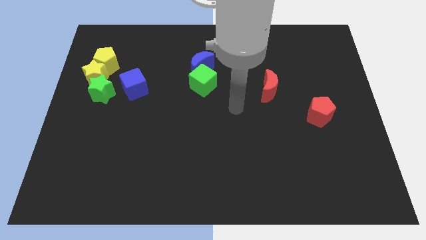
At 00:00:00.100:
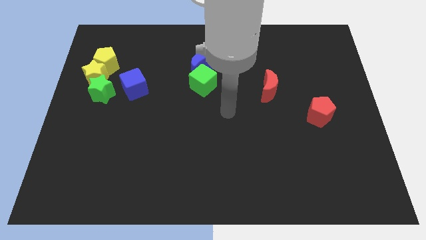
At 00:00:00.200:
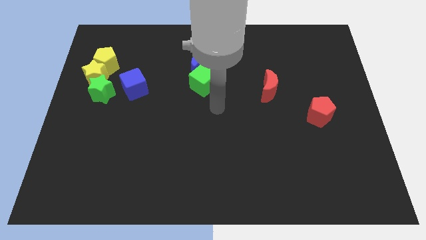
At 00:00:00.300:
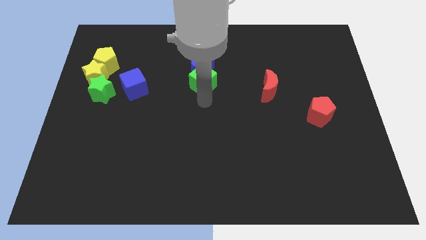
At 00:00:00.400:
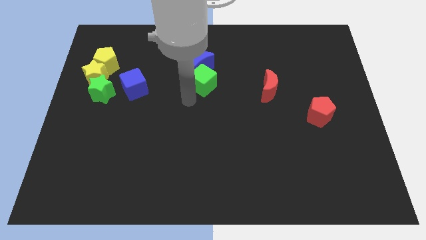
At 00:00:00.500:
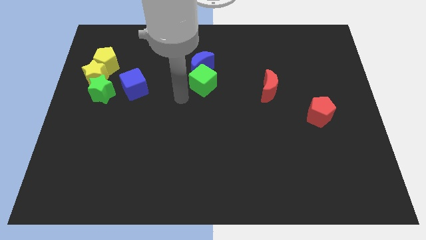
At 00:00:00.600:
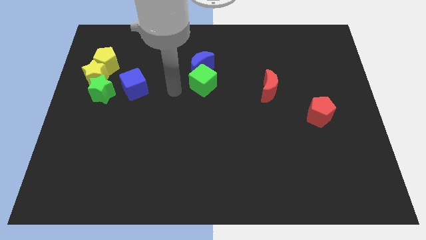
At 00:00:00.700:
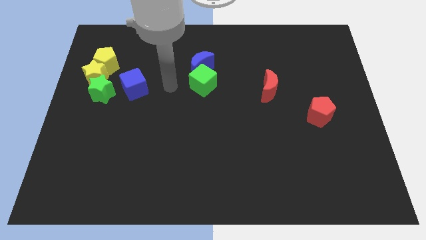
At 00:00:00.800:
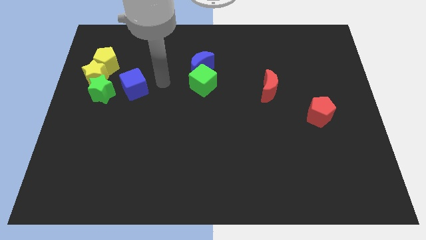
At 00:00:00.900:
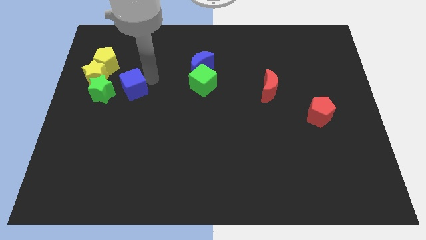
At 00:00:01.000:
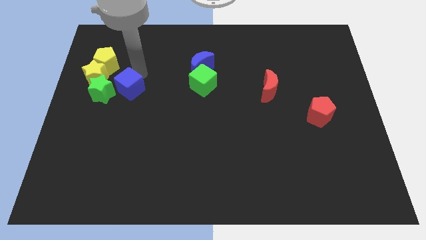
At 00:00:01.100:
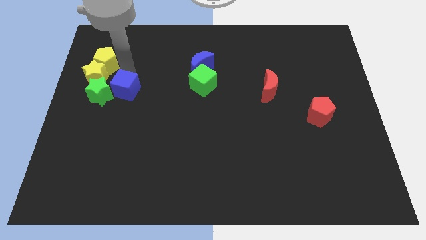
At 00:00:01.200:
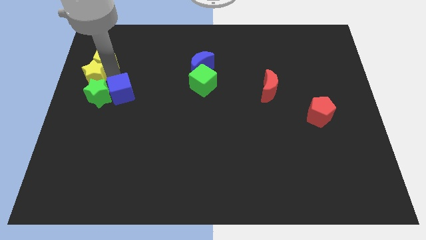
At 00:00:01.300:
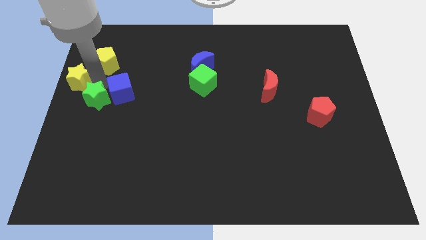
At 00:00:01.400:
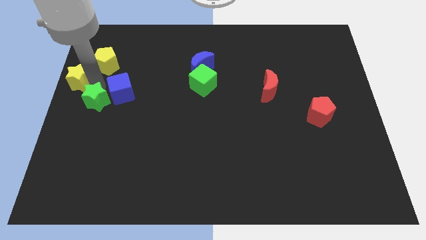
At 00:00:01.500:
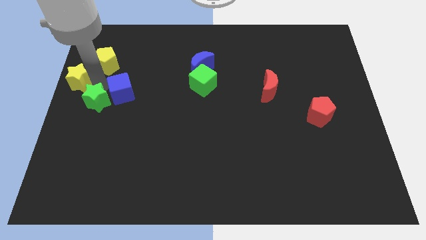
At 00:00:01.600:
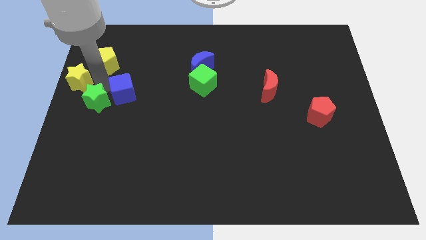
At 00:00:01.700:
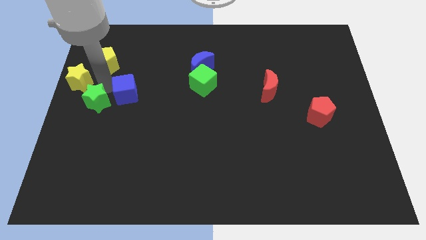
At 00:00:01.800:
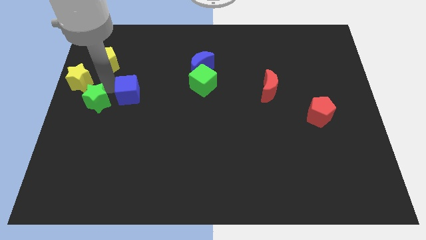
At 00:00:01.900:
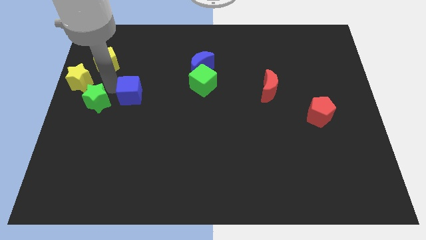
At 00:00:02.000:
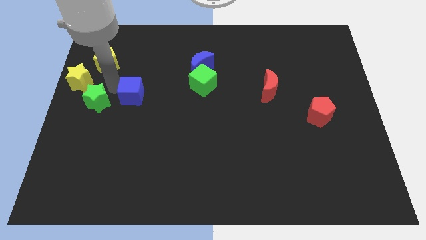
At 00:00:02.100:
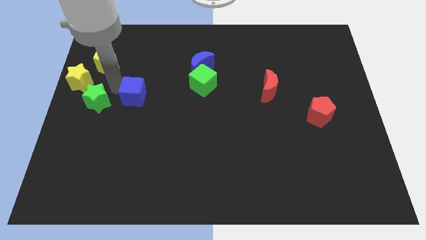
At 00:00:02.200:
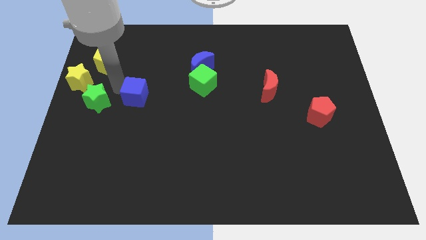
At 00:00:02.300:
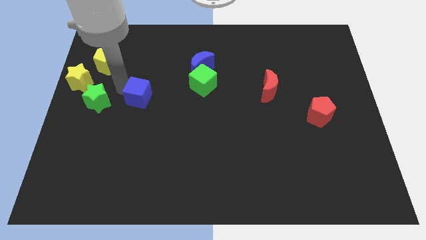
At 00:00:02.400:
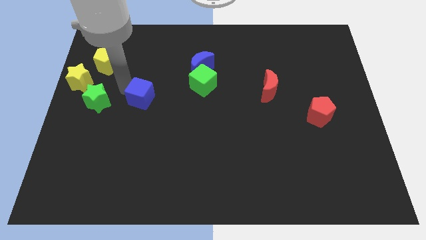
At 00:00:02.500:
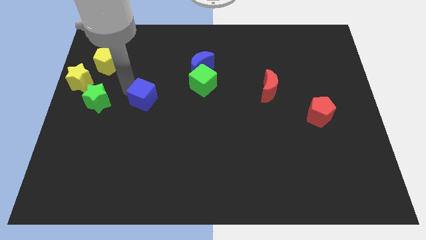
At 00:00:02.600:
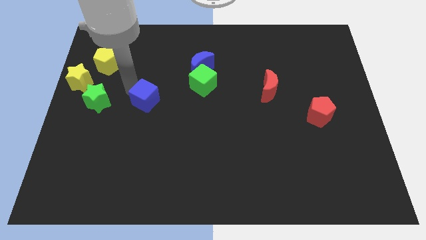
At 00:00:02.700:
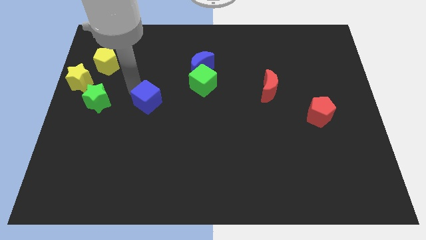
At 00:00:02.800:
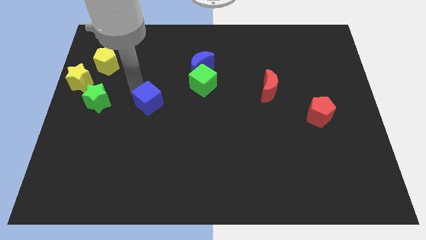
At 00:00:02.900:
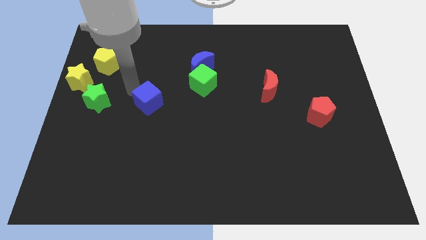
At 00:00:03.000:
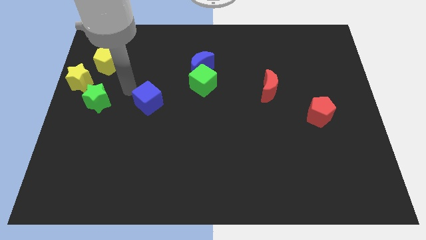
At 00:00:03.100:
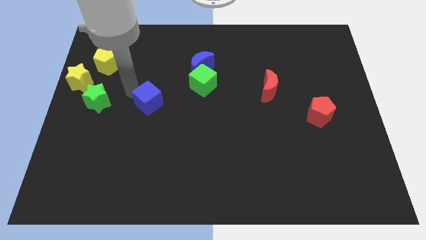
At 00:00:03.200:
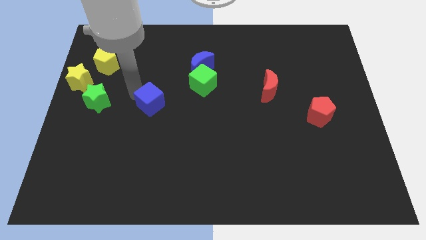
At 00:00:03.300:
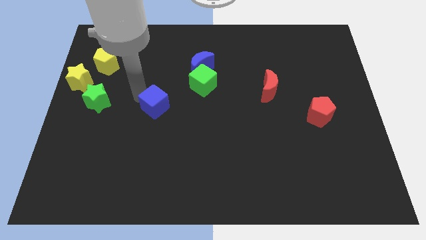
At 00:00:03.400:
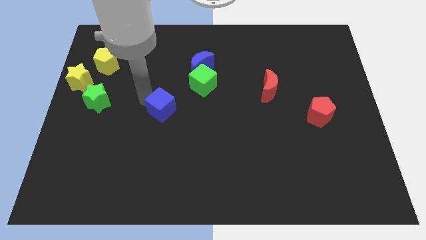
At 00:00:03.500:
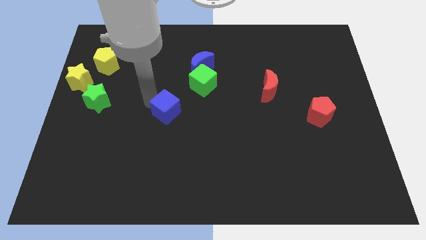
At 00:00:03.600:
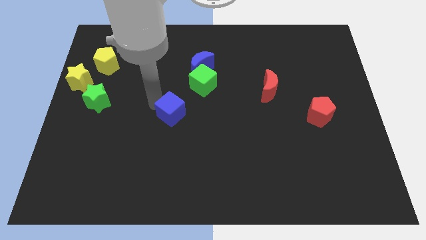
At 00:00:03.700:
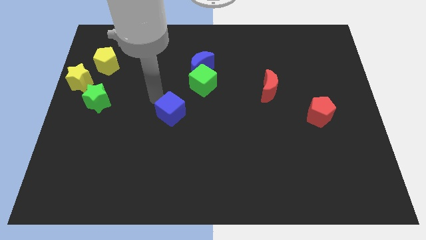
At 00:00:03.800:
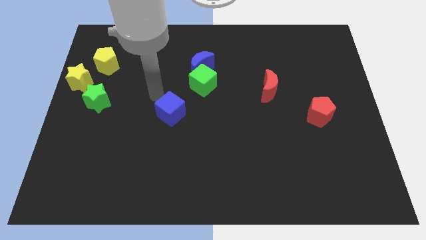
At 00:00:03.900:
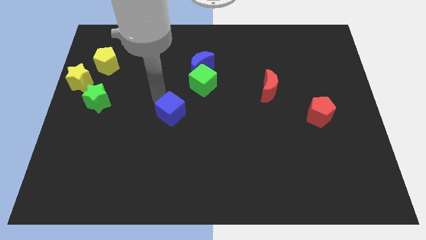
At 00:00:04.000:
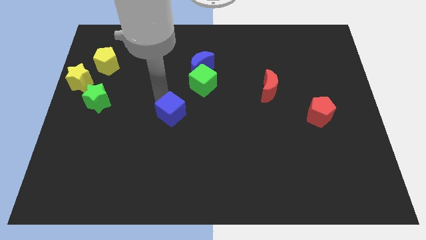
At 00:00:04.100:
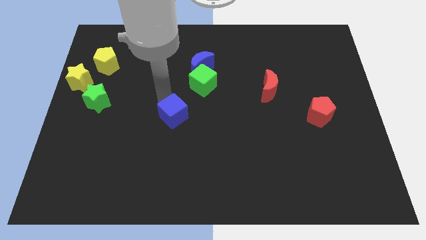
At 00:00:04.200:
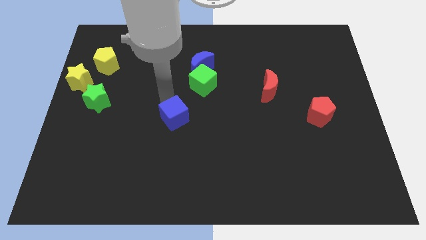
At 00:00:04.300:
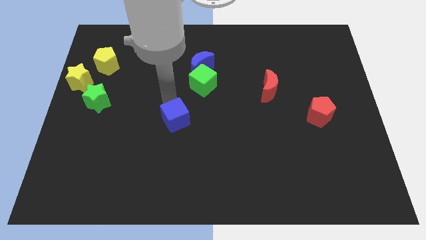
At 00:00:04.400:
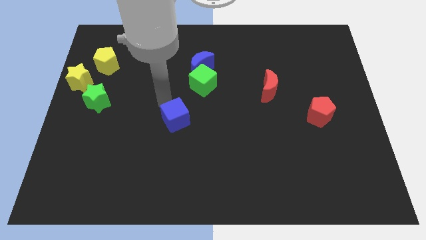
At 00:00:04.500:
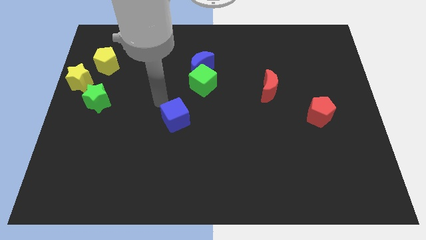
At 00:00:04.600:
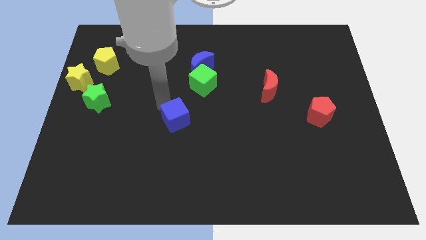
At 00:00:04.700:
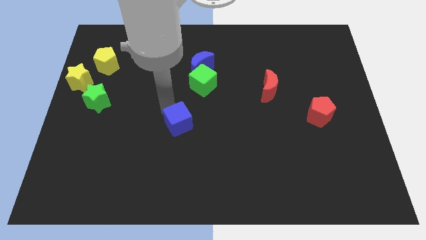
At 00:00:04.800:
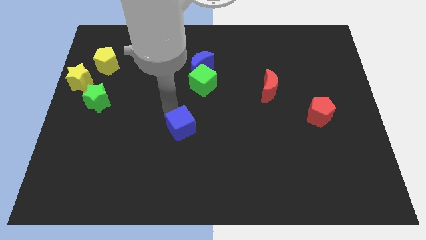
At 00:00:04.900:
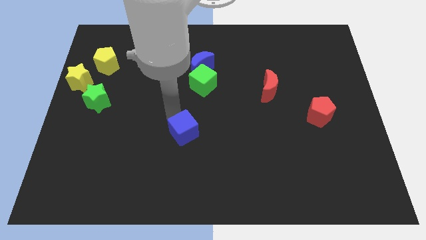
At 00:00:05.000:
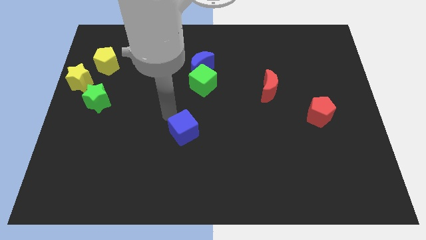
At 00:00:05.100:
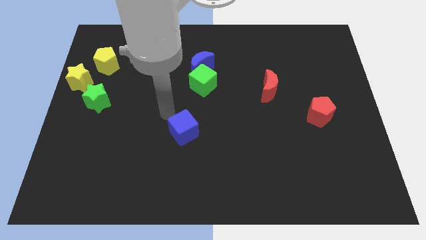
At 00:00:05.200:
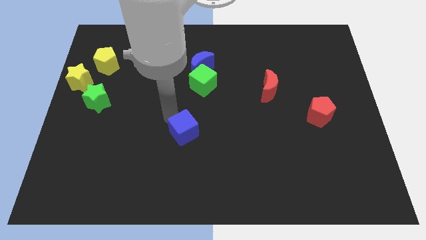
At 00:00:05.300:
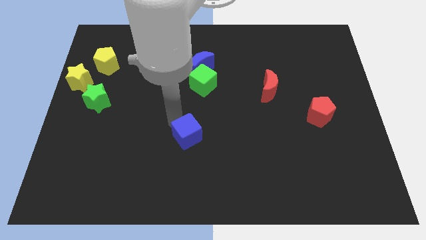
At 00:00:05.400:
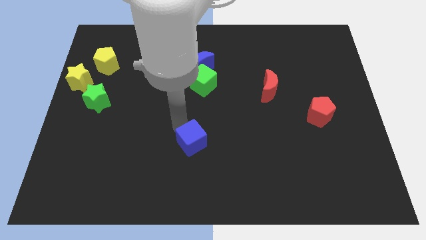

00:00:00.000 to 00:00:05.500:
move the blue cube downwards and then to the right

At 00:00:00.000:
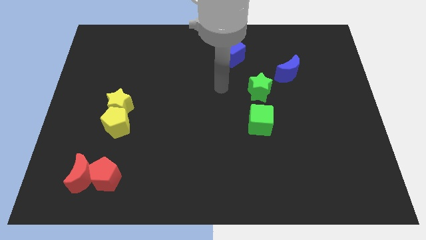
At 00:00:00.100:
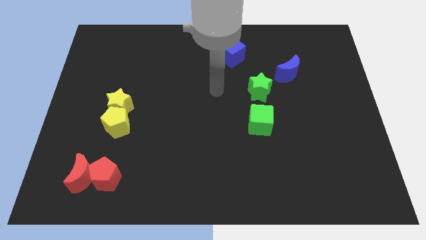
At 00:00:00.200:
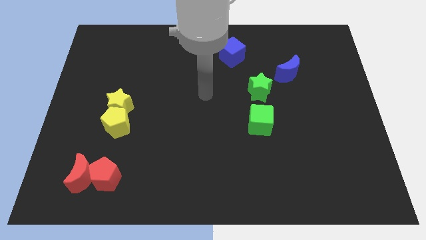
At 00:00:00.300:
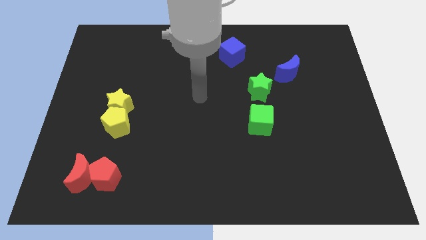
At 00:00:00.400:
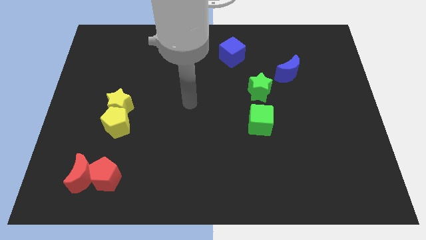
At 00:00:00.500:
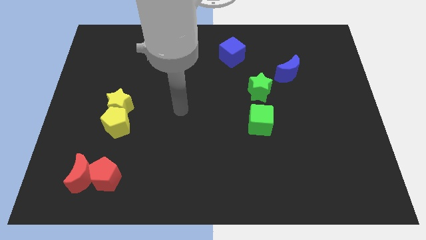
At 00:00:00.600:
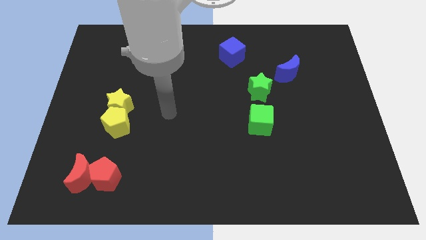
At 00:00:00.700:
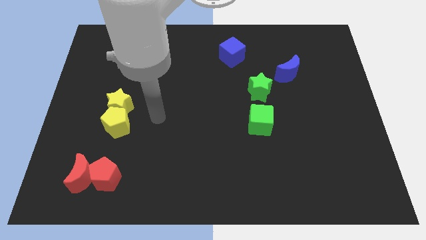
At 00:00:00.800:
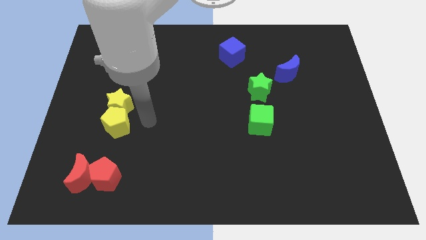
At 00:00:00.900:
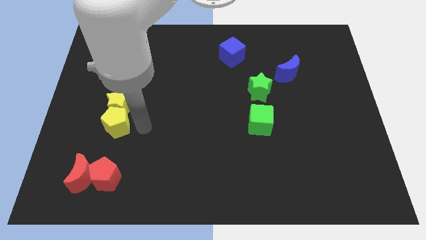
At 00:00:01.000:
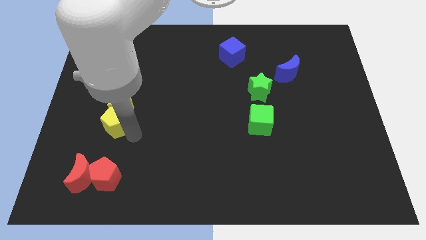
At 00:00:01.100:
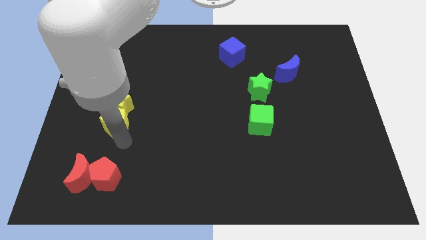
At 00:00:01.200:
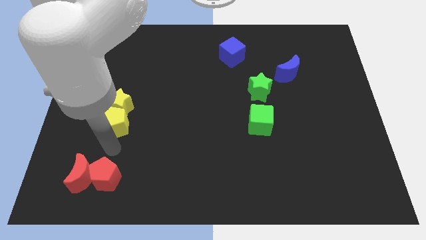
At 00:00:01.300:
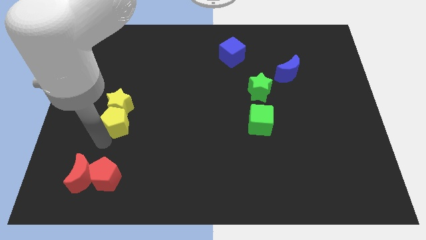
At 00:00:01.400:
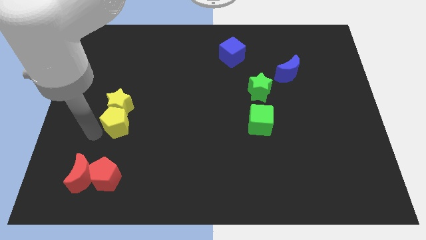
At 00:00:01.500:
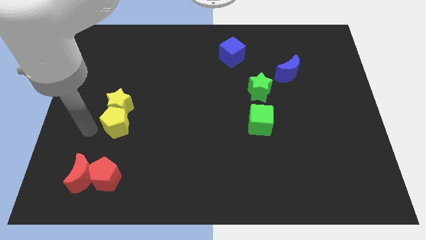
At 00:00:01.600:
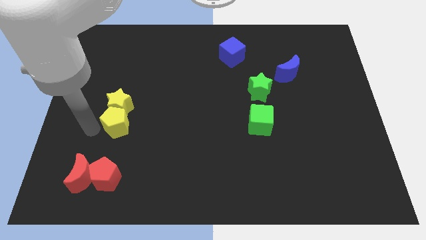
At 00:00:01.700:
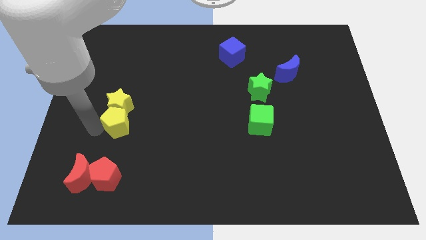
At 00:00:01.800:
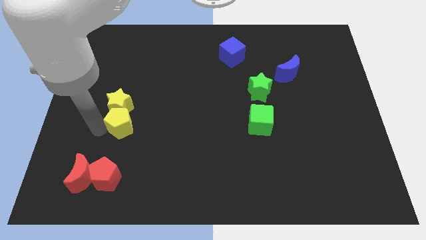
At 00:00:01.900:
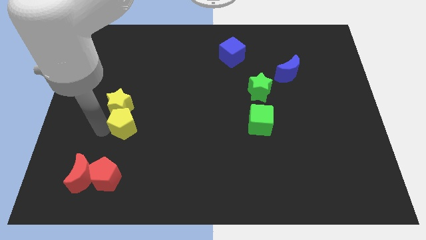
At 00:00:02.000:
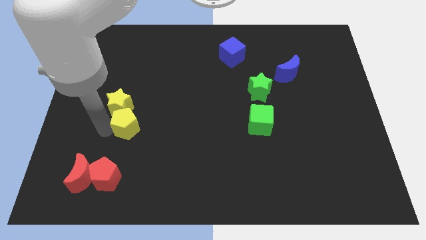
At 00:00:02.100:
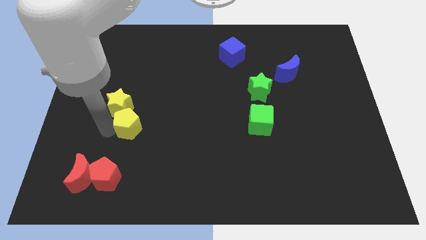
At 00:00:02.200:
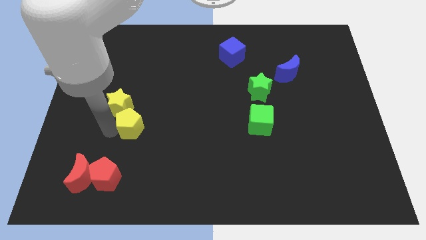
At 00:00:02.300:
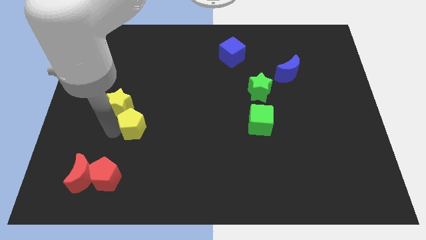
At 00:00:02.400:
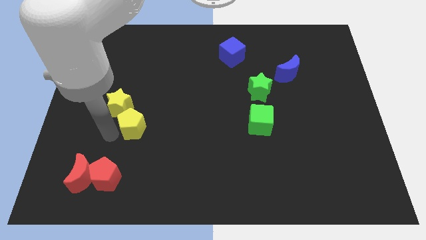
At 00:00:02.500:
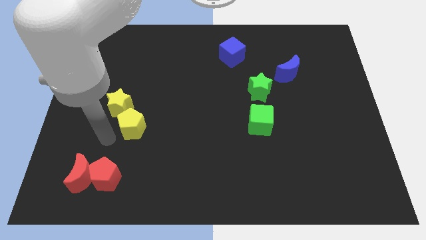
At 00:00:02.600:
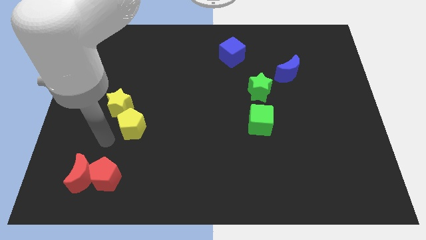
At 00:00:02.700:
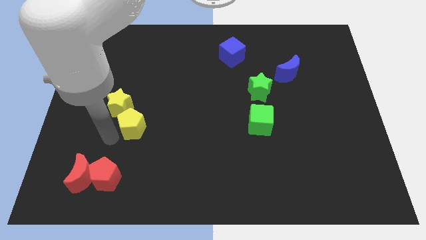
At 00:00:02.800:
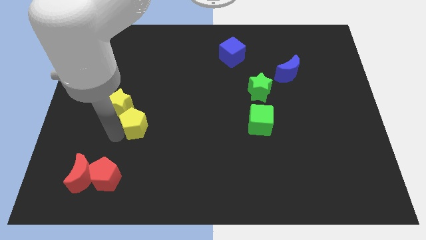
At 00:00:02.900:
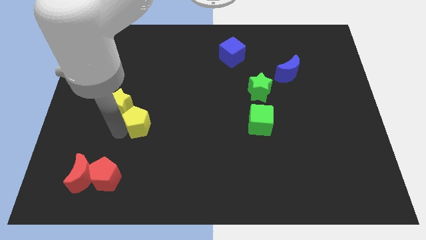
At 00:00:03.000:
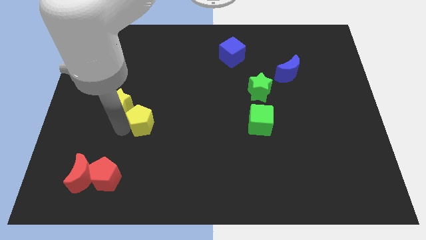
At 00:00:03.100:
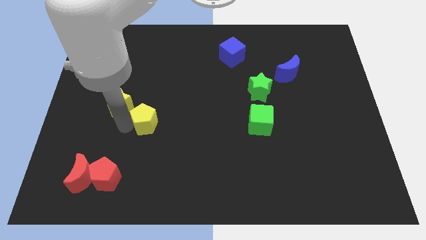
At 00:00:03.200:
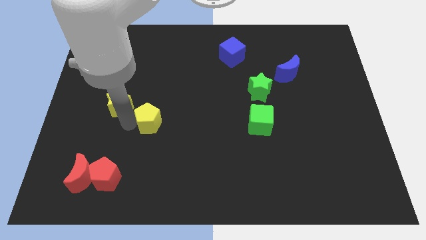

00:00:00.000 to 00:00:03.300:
move the yellow pentagon to the right slightly
